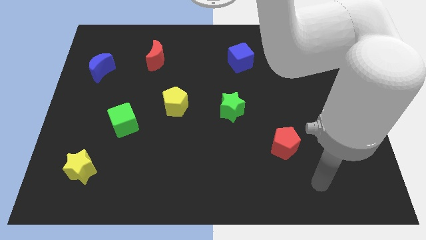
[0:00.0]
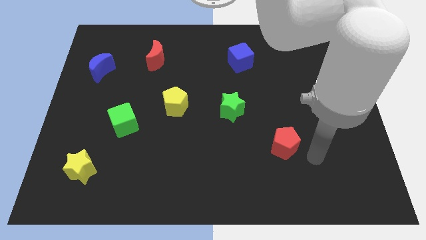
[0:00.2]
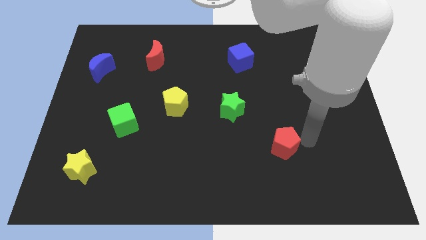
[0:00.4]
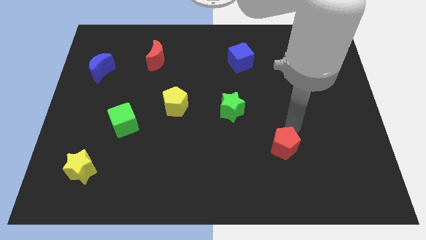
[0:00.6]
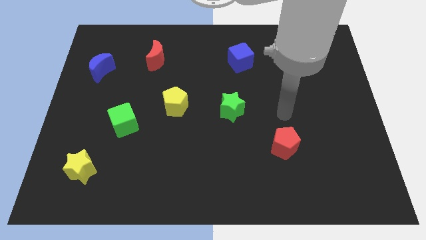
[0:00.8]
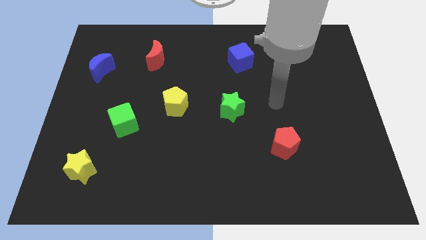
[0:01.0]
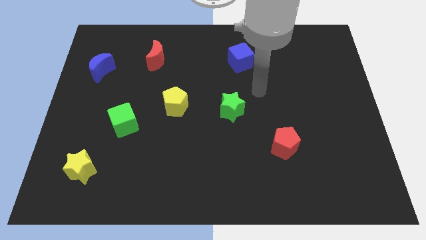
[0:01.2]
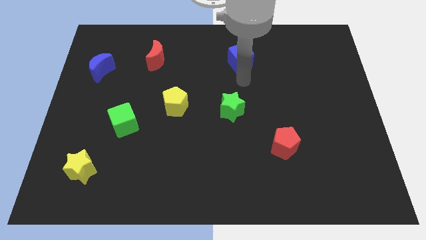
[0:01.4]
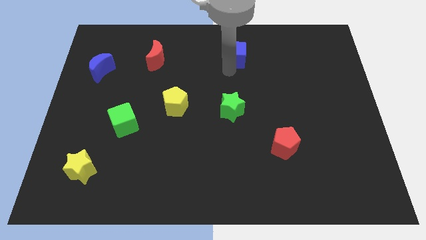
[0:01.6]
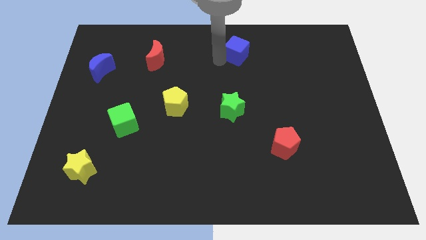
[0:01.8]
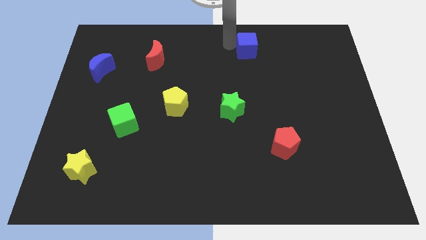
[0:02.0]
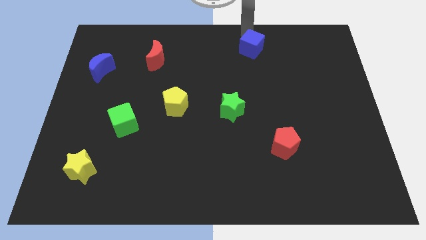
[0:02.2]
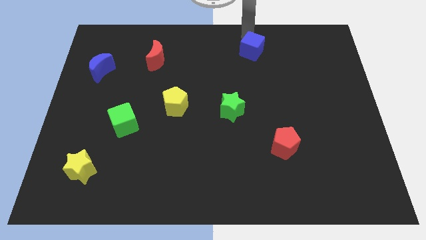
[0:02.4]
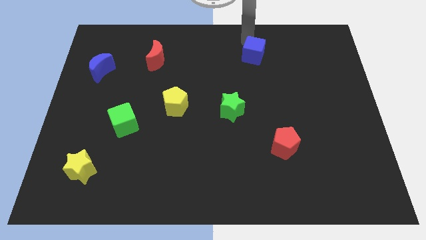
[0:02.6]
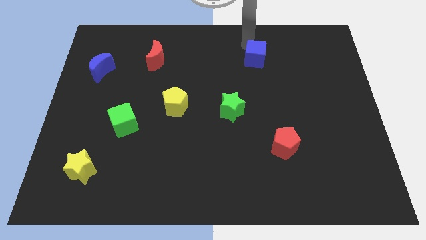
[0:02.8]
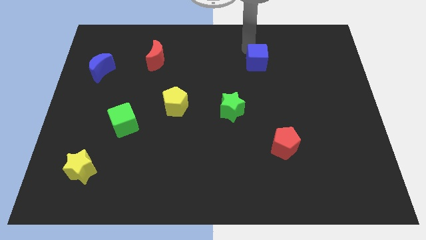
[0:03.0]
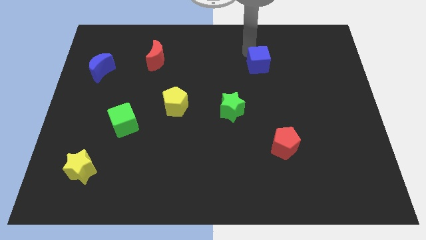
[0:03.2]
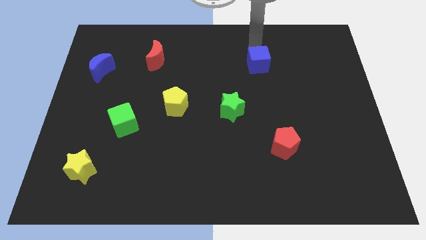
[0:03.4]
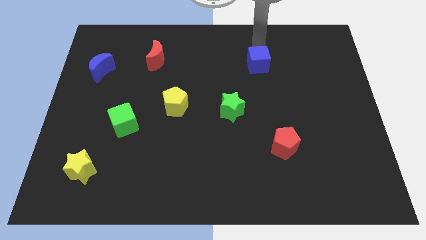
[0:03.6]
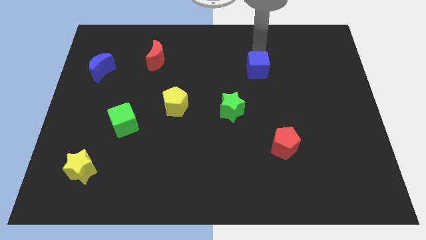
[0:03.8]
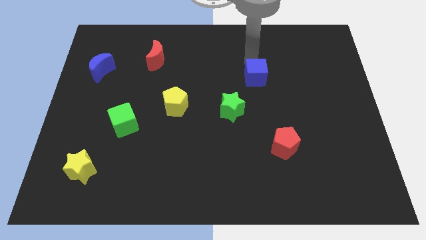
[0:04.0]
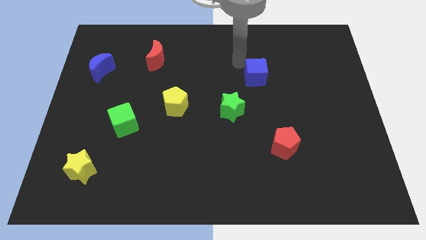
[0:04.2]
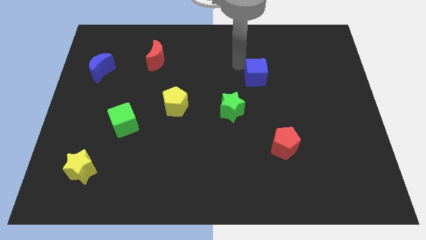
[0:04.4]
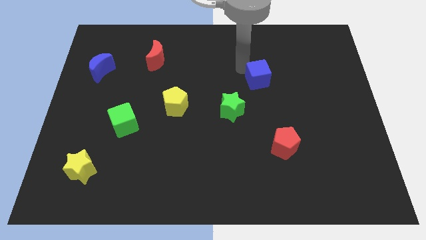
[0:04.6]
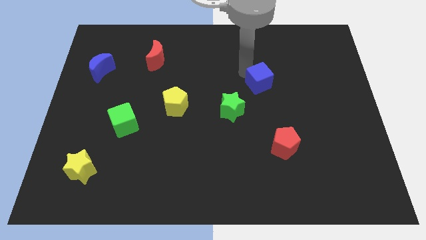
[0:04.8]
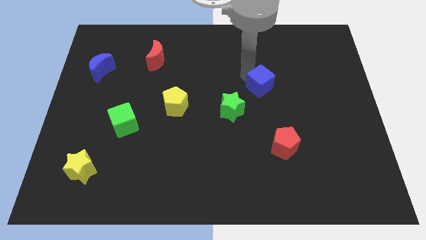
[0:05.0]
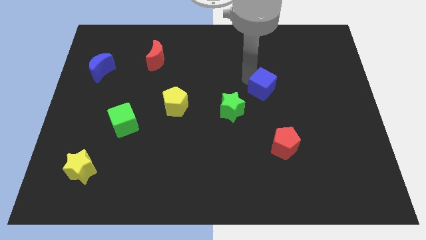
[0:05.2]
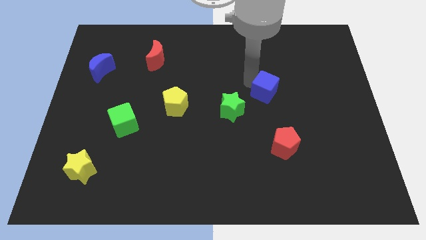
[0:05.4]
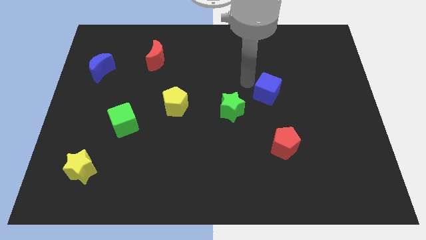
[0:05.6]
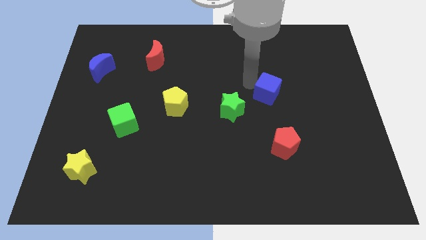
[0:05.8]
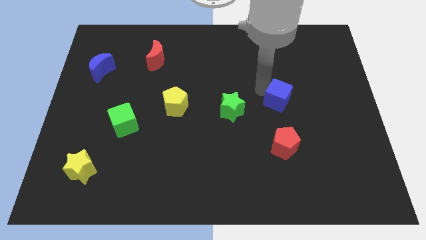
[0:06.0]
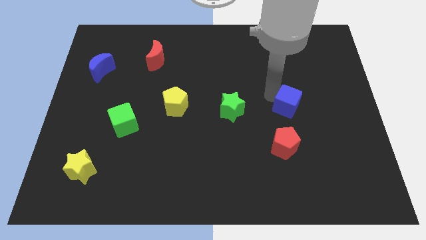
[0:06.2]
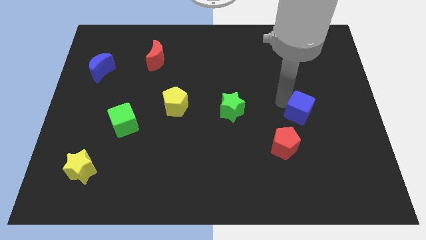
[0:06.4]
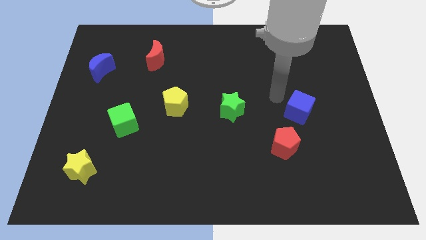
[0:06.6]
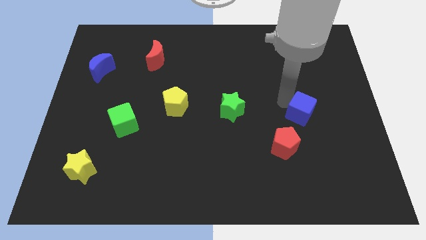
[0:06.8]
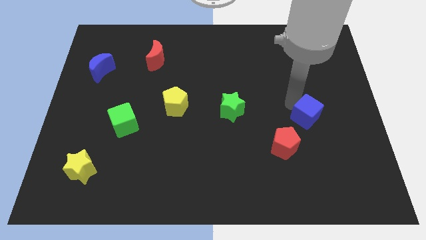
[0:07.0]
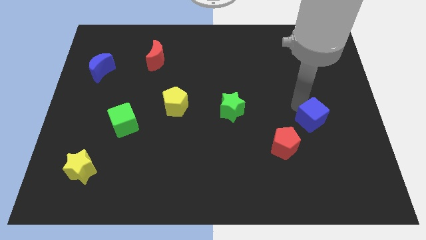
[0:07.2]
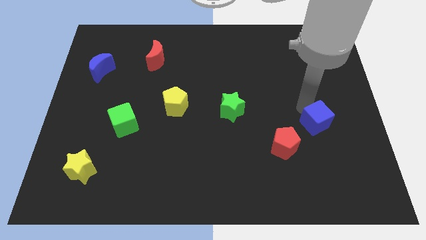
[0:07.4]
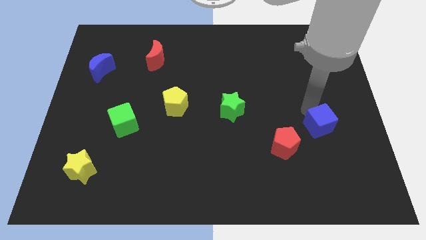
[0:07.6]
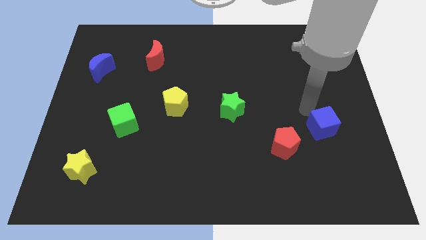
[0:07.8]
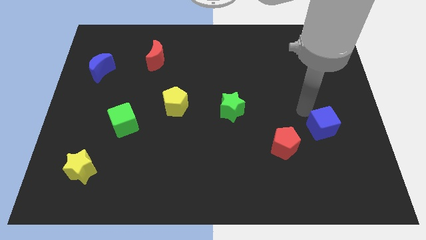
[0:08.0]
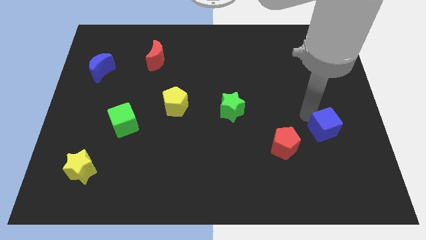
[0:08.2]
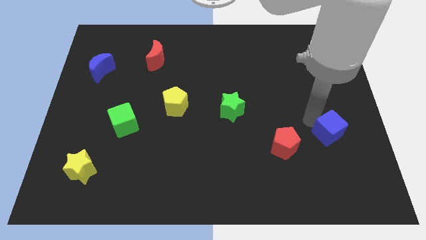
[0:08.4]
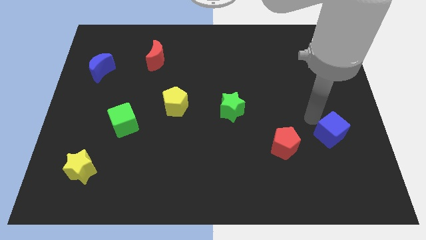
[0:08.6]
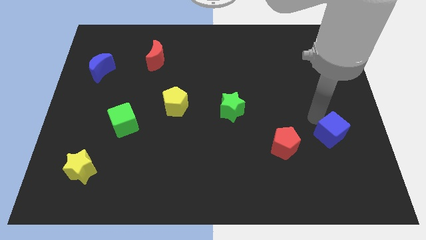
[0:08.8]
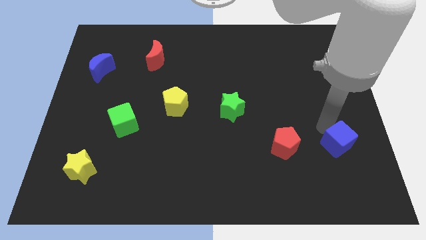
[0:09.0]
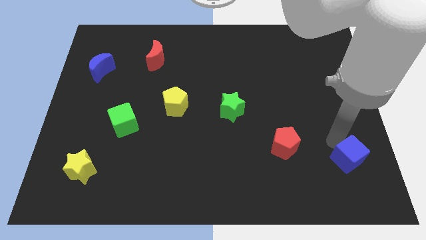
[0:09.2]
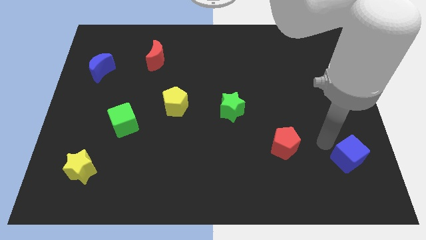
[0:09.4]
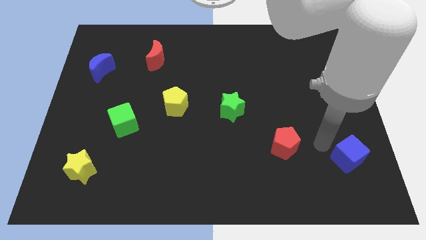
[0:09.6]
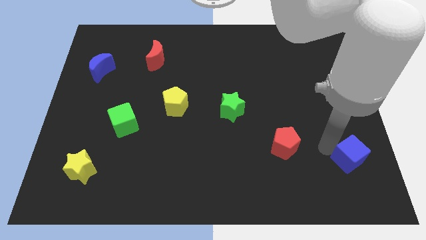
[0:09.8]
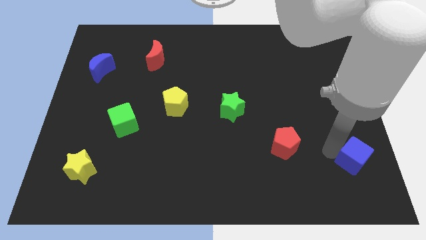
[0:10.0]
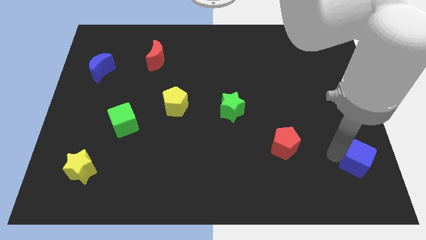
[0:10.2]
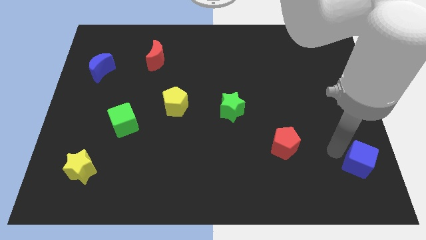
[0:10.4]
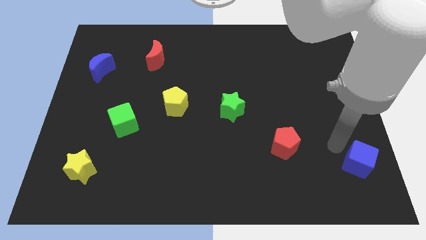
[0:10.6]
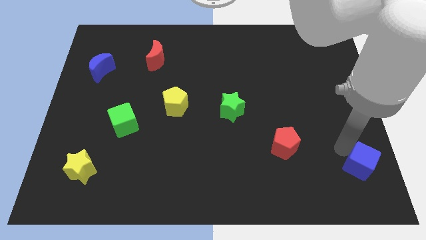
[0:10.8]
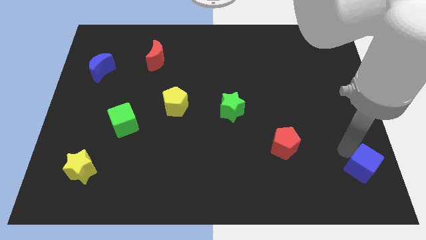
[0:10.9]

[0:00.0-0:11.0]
push the blue cube to the lower right corner
